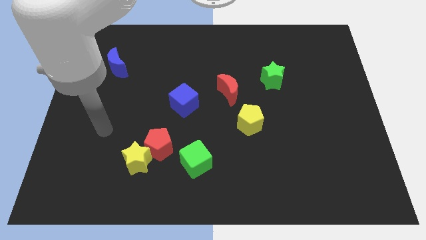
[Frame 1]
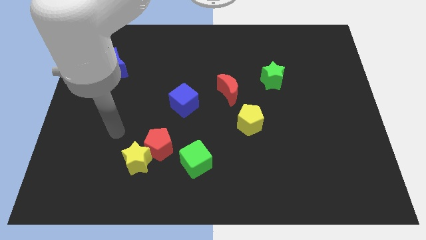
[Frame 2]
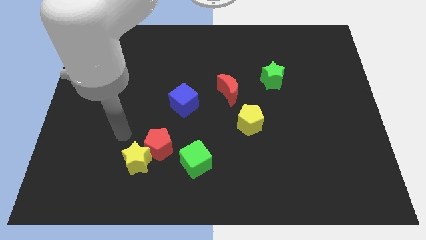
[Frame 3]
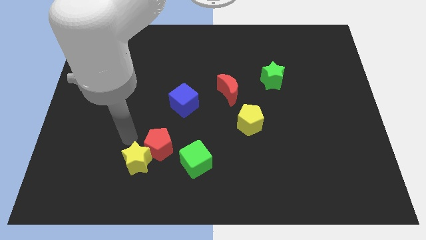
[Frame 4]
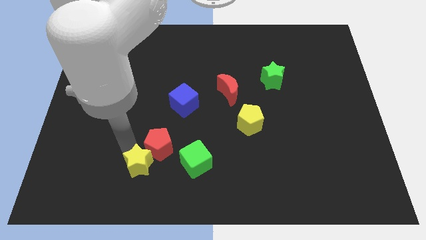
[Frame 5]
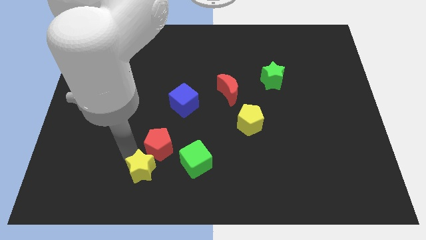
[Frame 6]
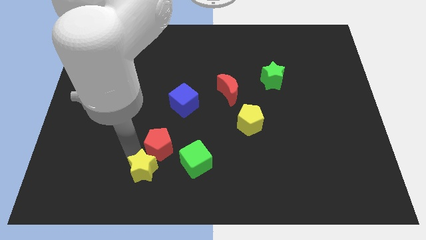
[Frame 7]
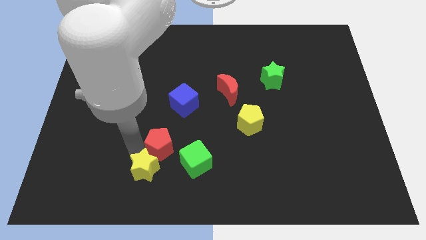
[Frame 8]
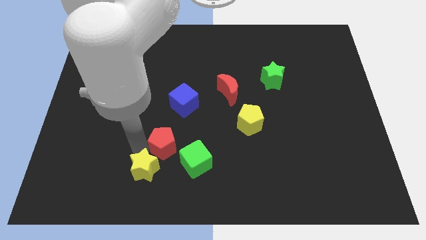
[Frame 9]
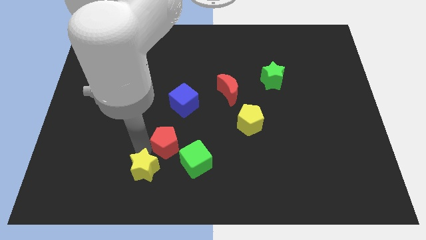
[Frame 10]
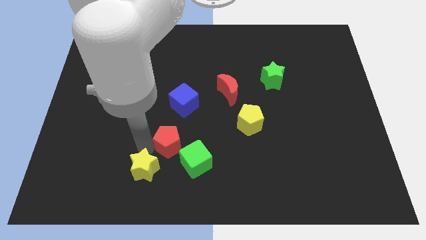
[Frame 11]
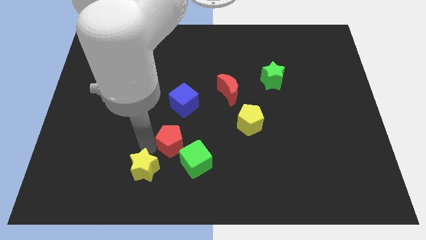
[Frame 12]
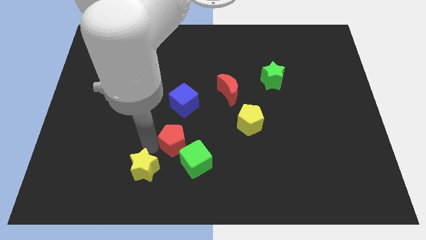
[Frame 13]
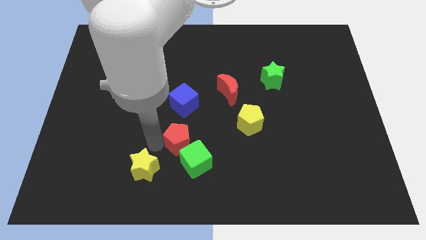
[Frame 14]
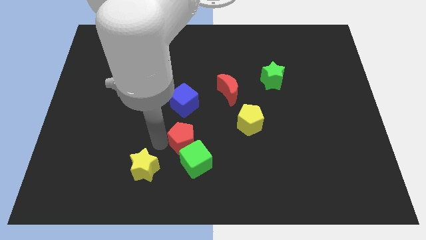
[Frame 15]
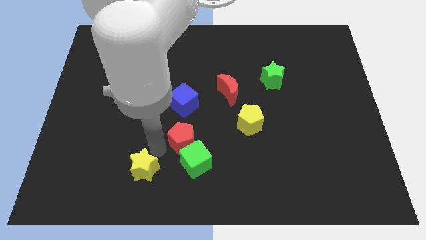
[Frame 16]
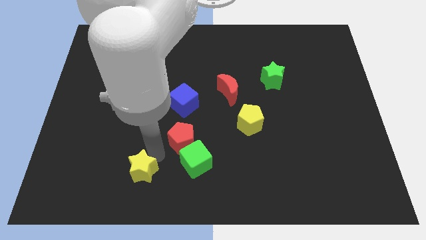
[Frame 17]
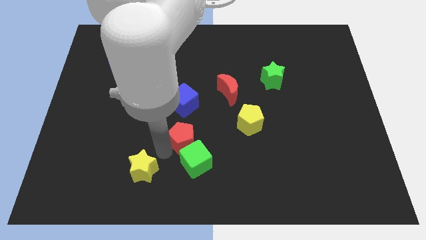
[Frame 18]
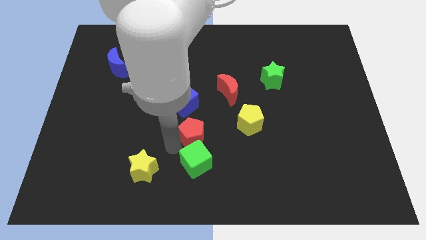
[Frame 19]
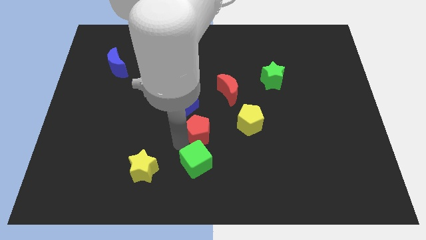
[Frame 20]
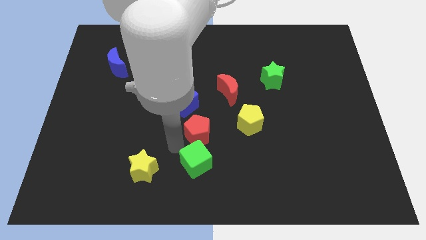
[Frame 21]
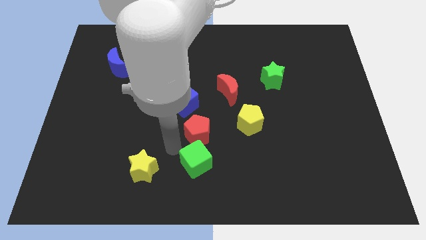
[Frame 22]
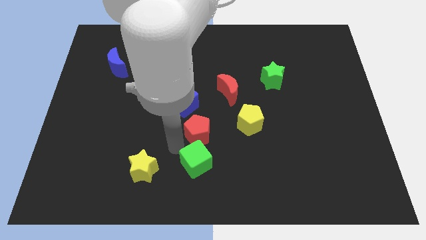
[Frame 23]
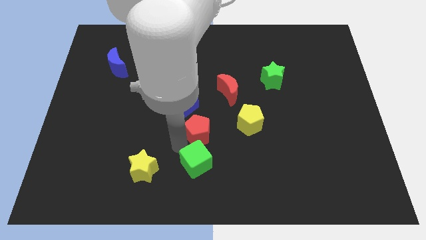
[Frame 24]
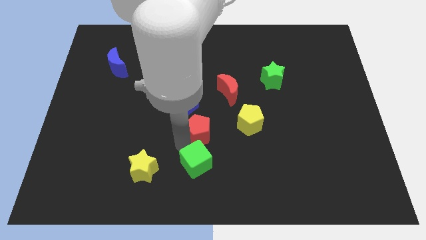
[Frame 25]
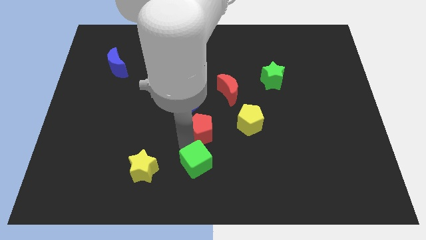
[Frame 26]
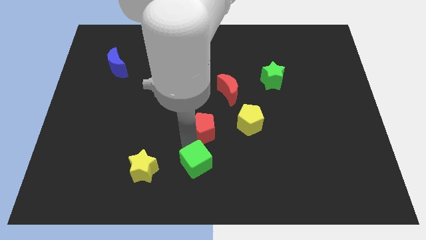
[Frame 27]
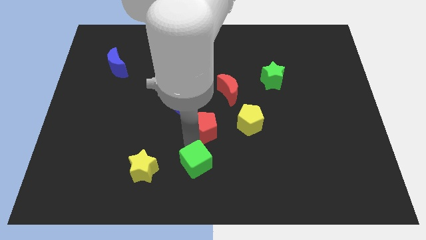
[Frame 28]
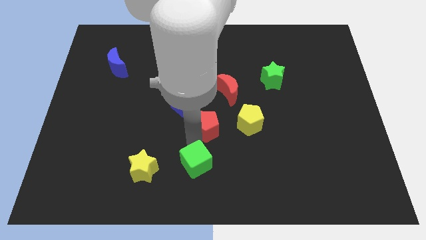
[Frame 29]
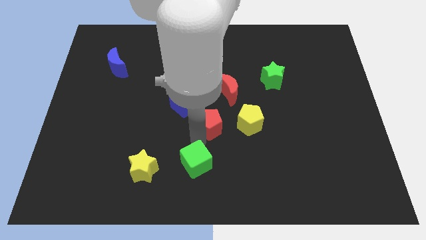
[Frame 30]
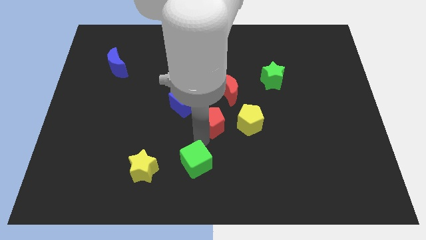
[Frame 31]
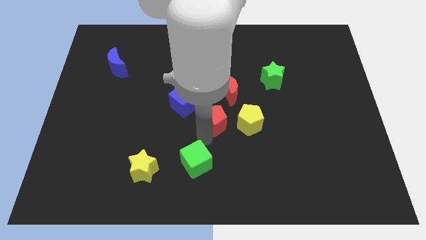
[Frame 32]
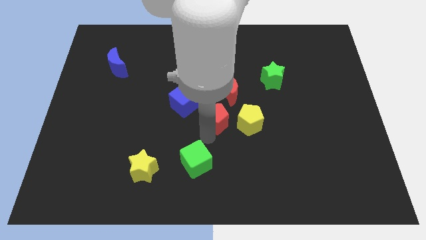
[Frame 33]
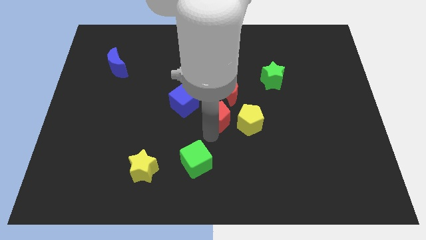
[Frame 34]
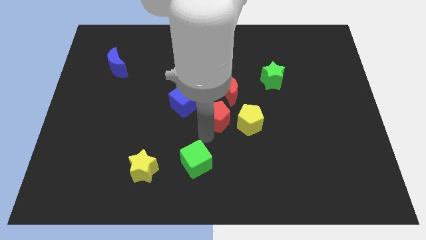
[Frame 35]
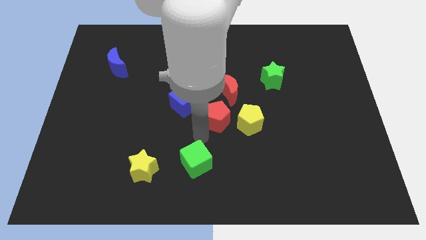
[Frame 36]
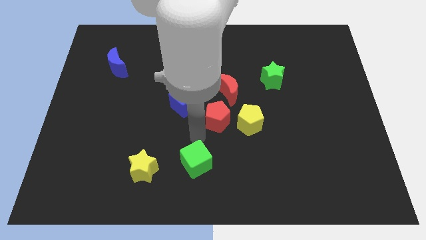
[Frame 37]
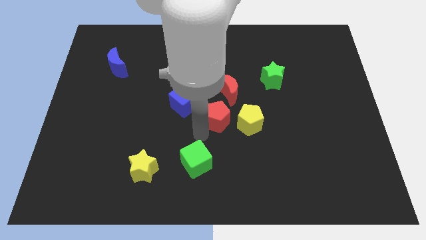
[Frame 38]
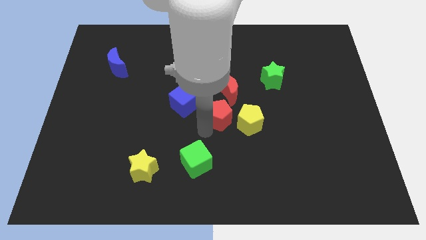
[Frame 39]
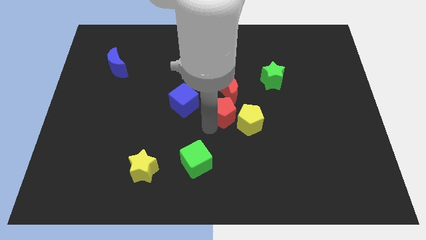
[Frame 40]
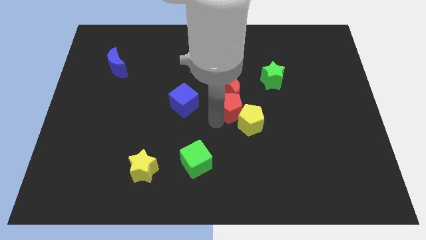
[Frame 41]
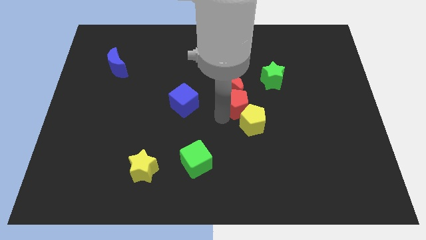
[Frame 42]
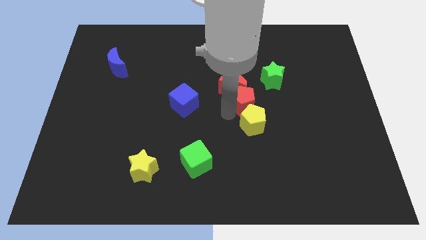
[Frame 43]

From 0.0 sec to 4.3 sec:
move the red pentagon diagonally up and right

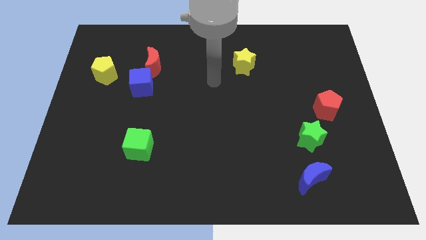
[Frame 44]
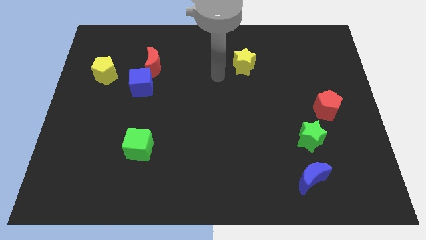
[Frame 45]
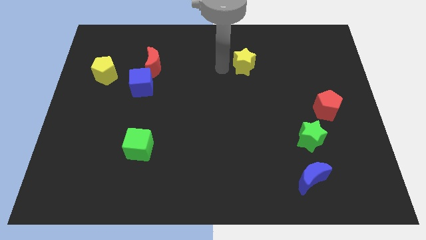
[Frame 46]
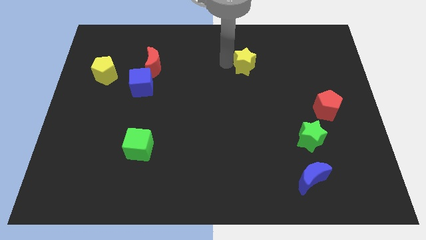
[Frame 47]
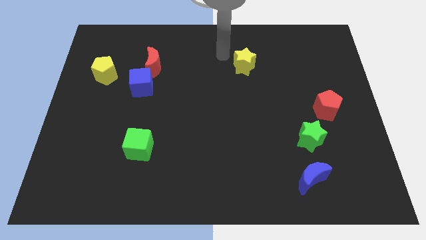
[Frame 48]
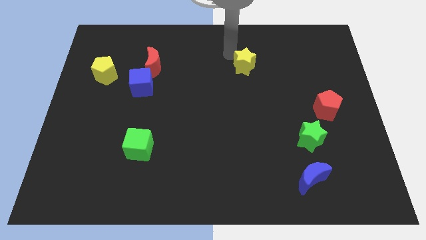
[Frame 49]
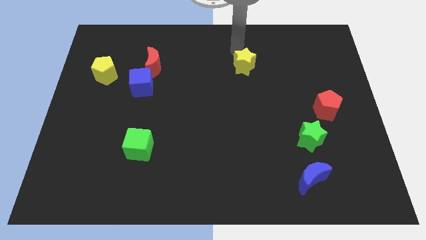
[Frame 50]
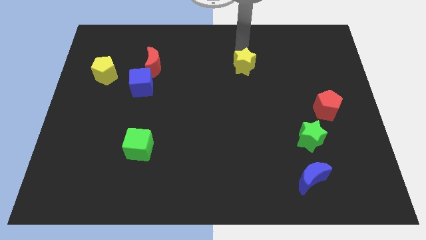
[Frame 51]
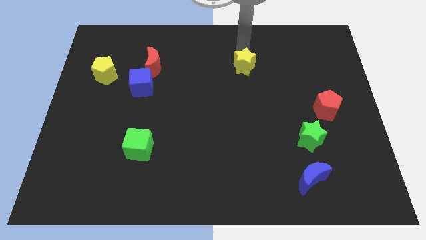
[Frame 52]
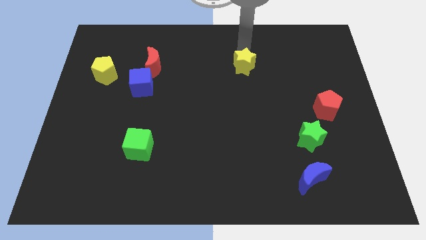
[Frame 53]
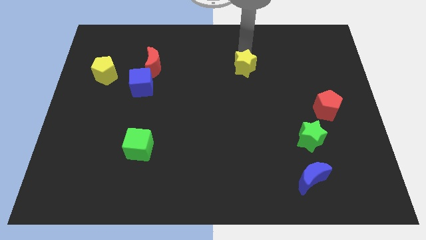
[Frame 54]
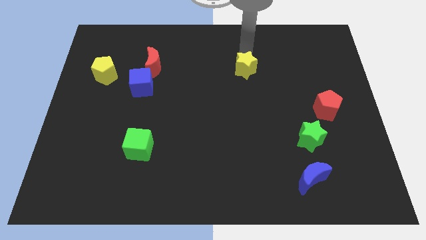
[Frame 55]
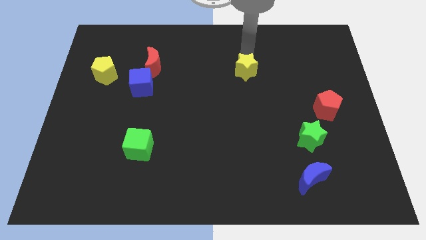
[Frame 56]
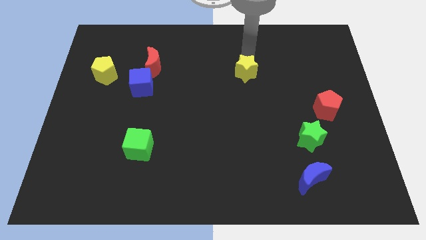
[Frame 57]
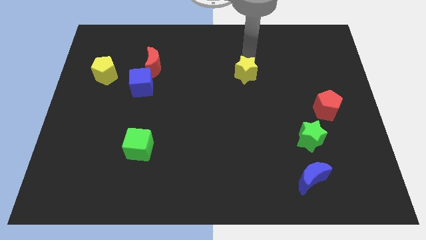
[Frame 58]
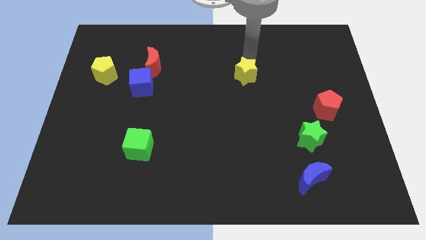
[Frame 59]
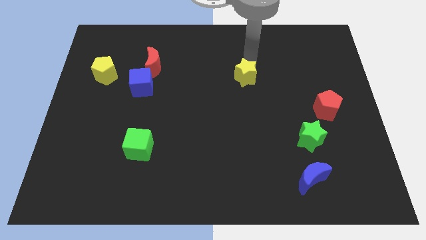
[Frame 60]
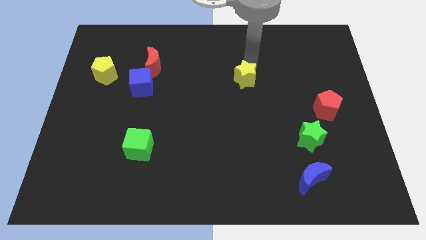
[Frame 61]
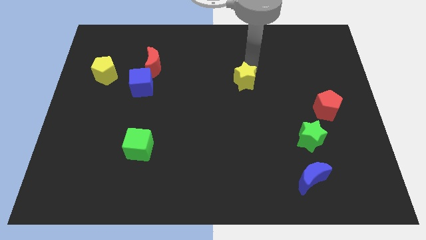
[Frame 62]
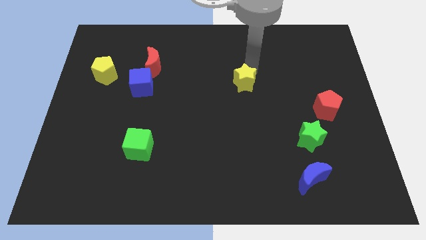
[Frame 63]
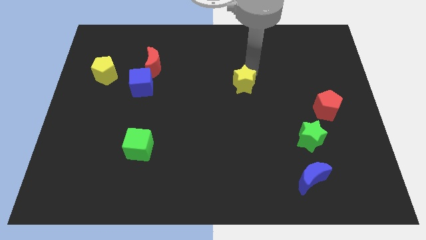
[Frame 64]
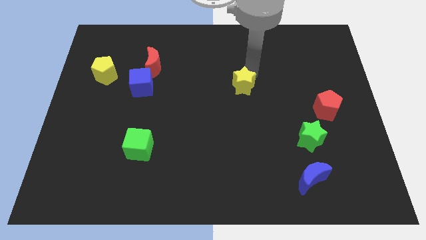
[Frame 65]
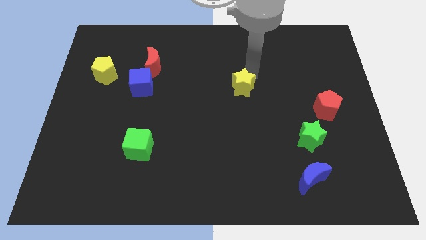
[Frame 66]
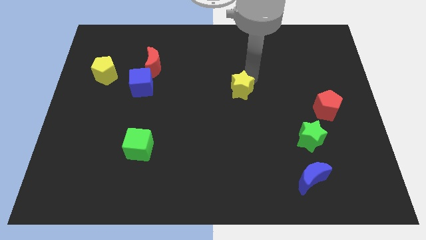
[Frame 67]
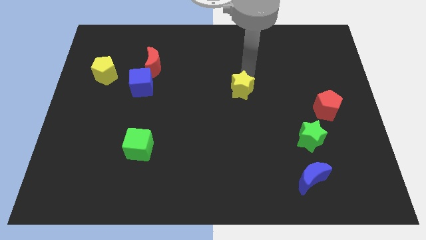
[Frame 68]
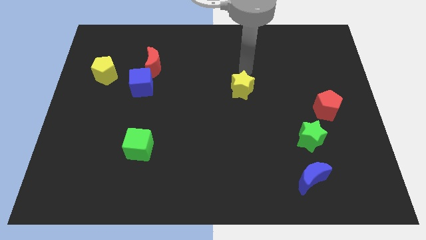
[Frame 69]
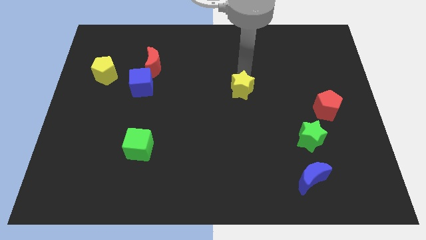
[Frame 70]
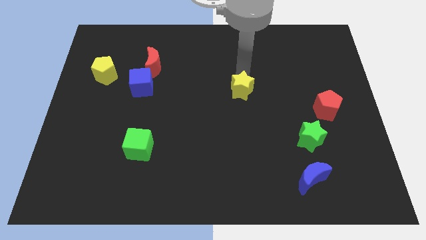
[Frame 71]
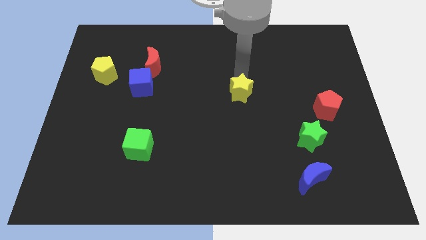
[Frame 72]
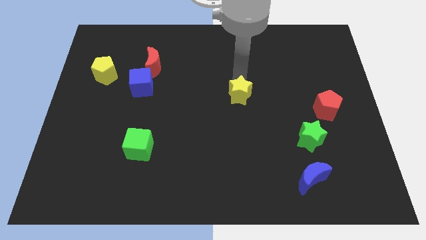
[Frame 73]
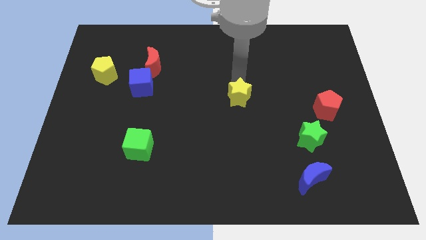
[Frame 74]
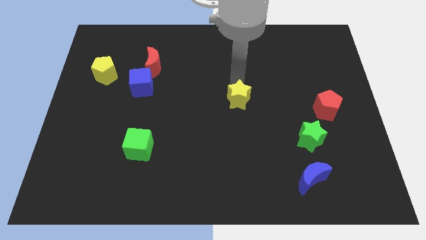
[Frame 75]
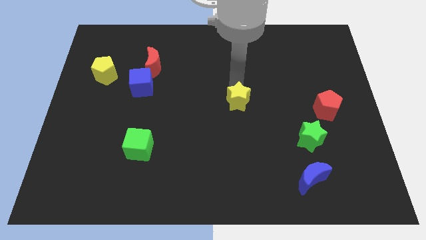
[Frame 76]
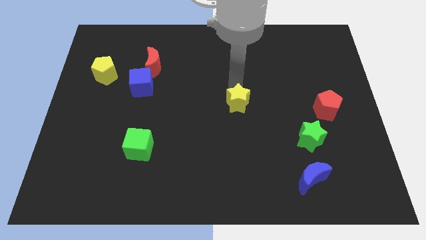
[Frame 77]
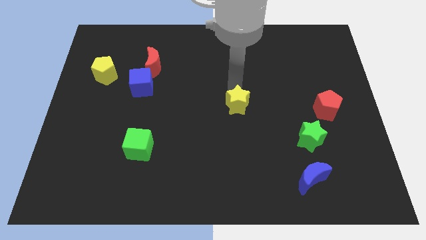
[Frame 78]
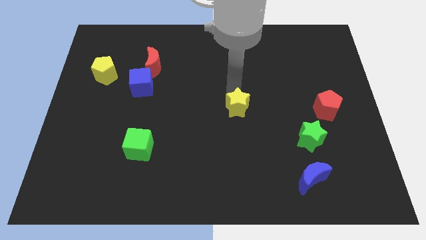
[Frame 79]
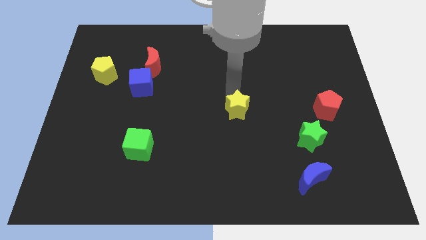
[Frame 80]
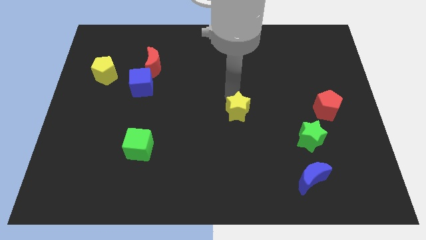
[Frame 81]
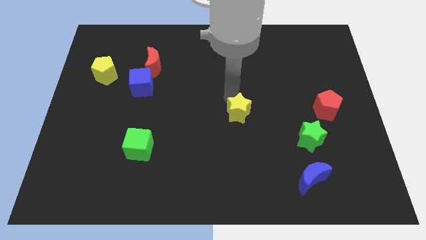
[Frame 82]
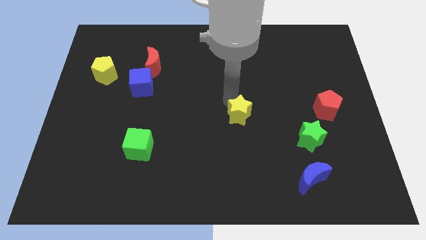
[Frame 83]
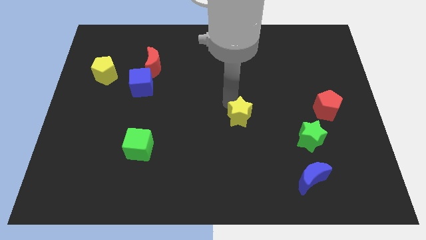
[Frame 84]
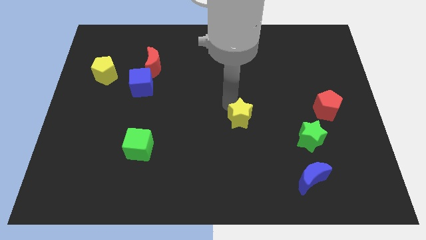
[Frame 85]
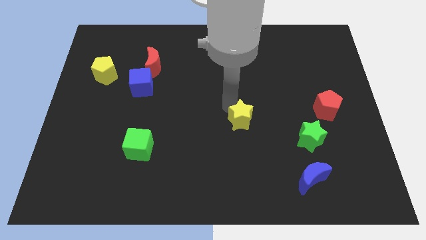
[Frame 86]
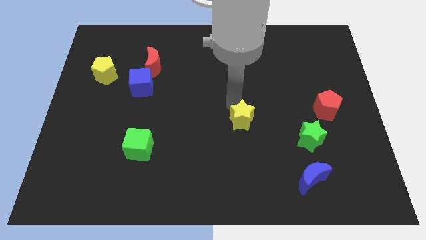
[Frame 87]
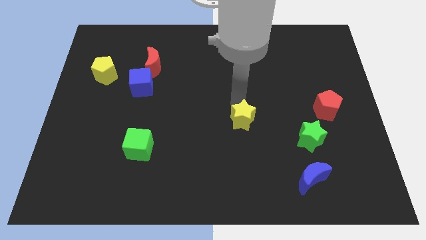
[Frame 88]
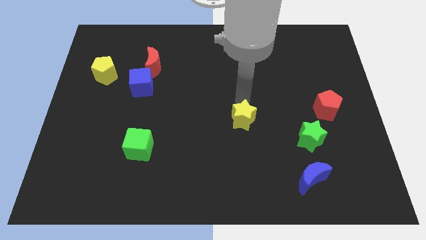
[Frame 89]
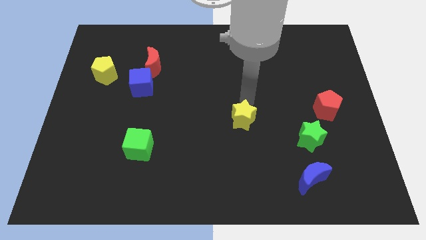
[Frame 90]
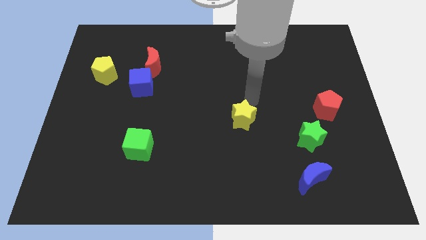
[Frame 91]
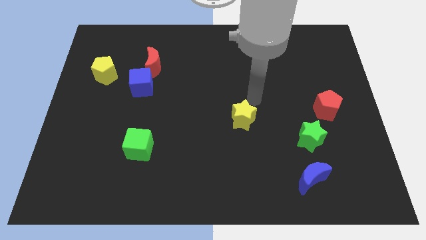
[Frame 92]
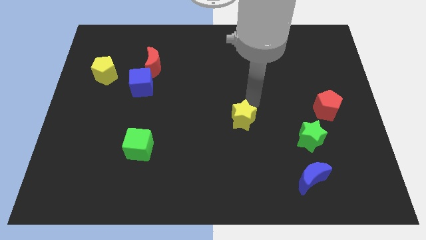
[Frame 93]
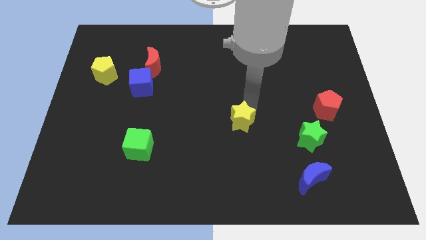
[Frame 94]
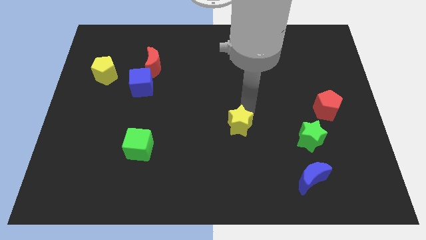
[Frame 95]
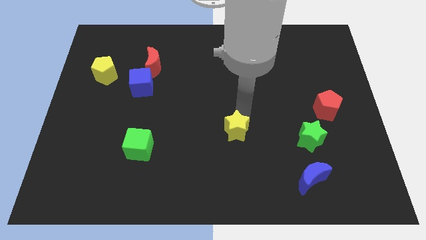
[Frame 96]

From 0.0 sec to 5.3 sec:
push the yellow star downwards
